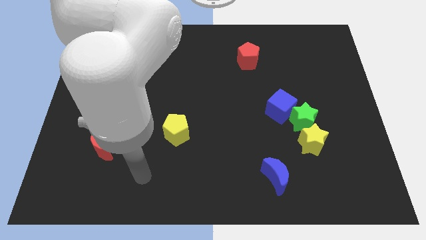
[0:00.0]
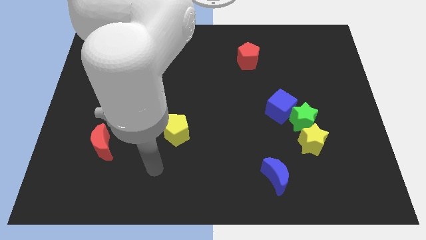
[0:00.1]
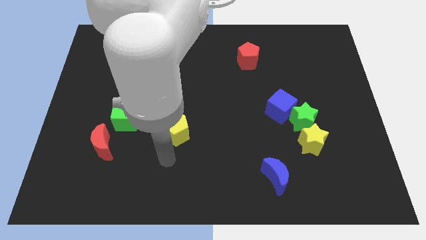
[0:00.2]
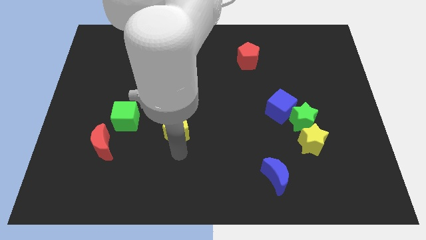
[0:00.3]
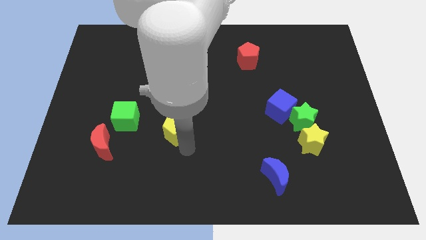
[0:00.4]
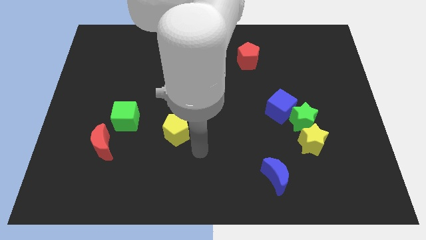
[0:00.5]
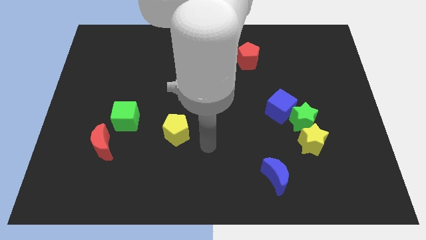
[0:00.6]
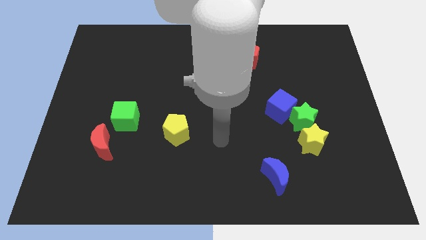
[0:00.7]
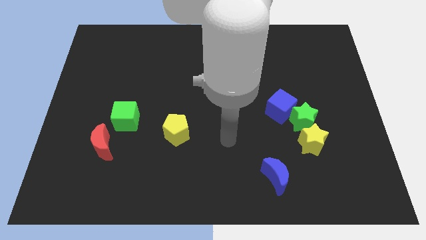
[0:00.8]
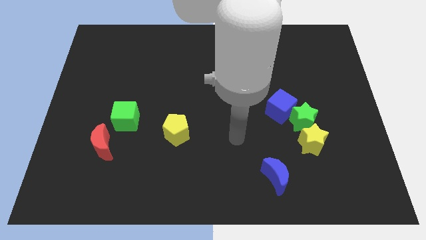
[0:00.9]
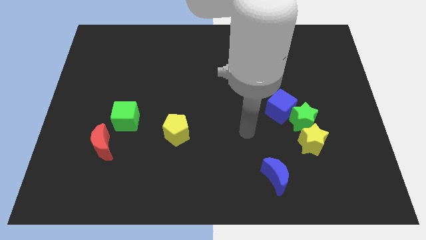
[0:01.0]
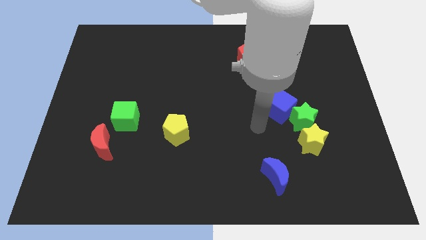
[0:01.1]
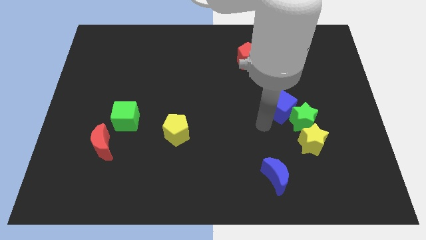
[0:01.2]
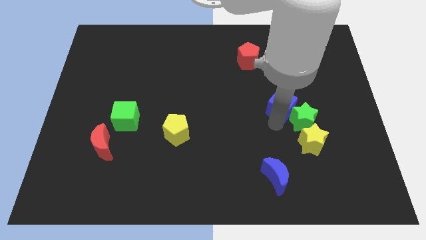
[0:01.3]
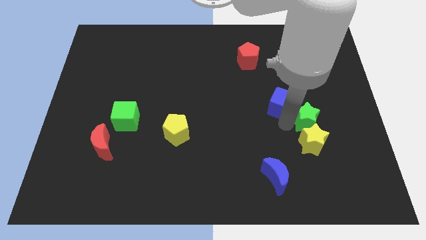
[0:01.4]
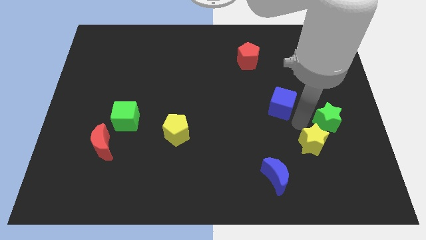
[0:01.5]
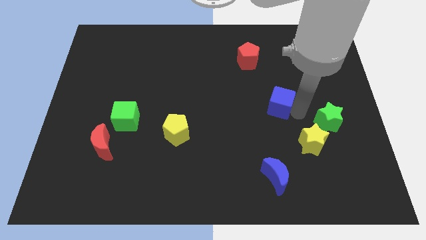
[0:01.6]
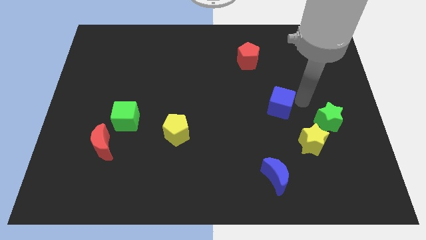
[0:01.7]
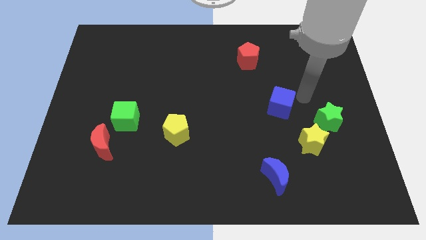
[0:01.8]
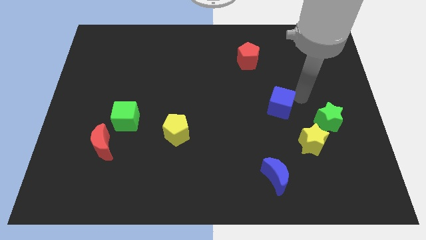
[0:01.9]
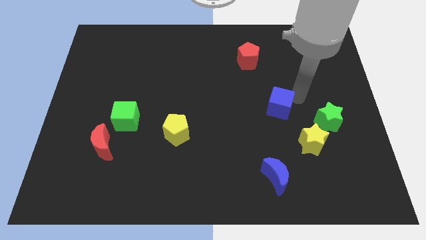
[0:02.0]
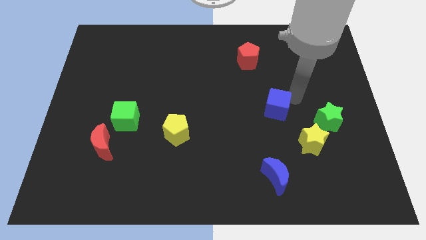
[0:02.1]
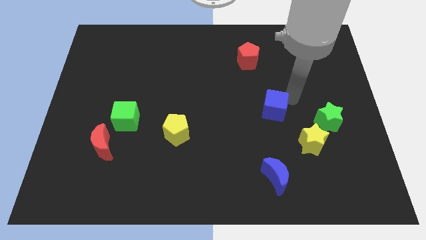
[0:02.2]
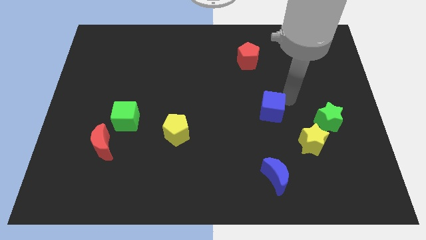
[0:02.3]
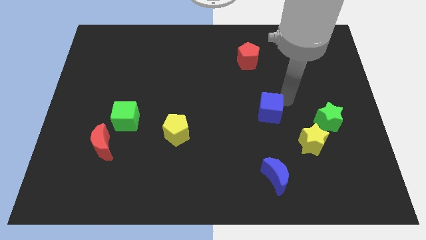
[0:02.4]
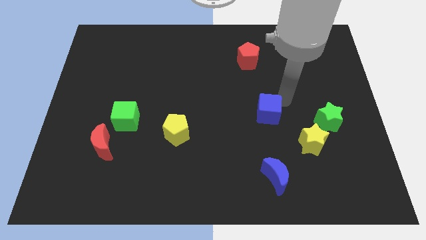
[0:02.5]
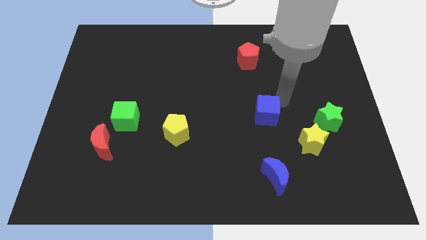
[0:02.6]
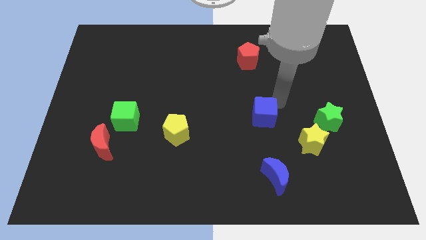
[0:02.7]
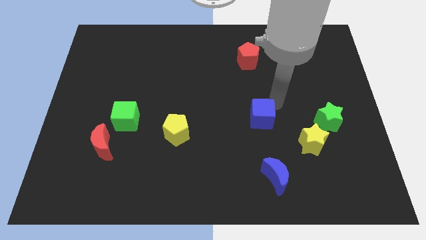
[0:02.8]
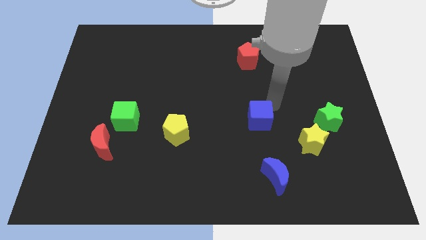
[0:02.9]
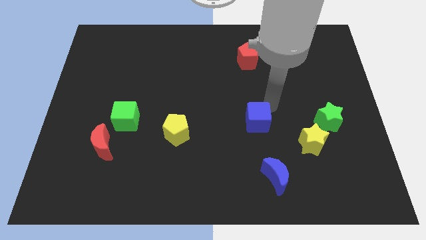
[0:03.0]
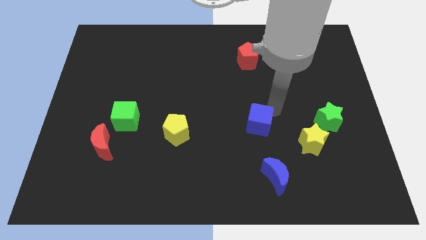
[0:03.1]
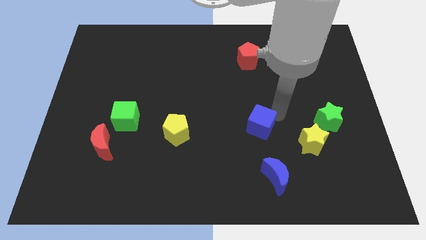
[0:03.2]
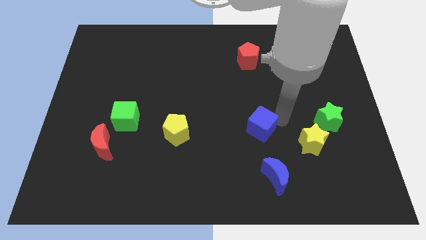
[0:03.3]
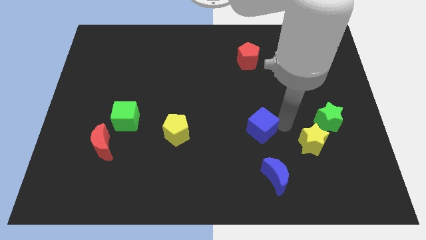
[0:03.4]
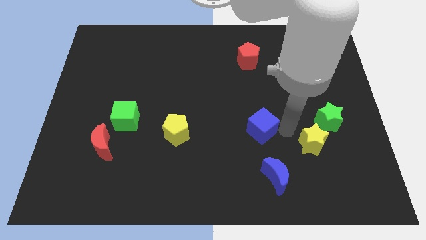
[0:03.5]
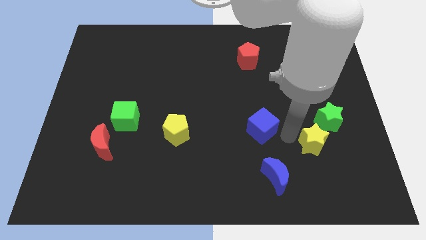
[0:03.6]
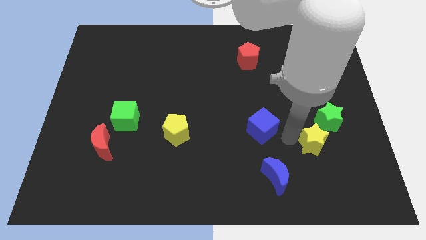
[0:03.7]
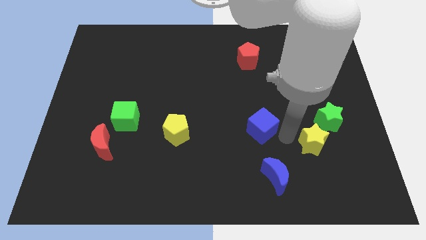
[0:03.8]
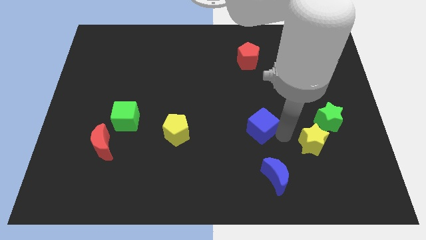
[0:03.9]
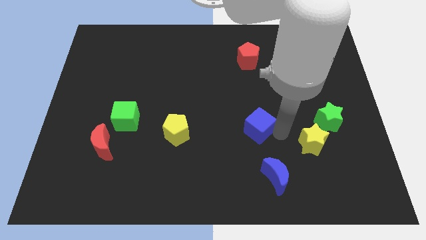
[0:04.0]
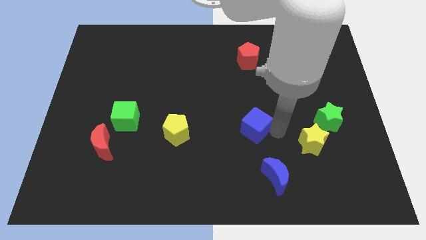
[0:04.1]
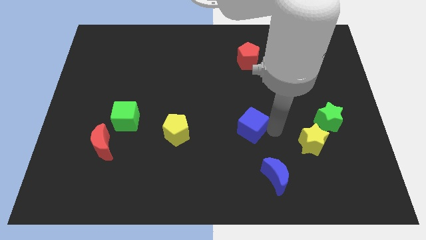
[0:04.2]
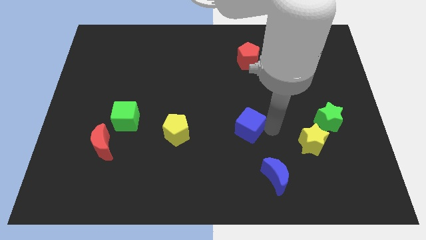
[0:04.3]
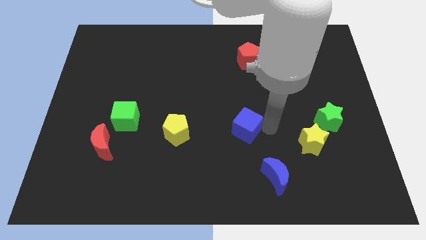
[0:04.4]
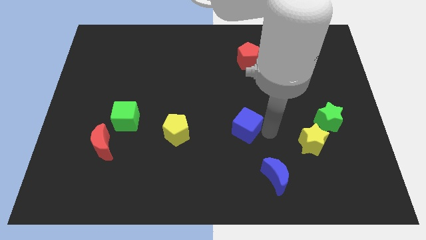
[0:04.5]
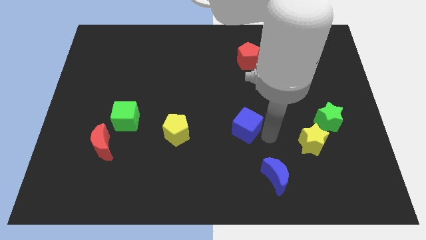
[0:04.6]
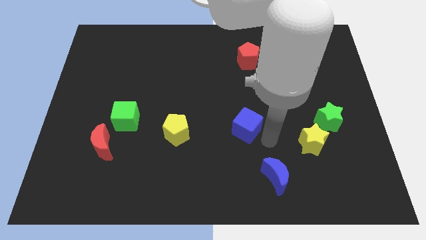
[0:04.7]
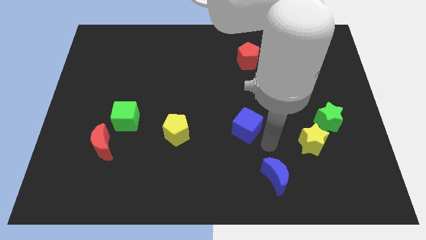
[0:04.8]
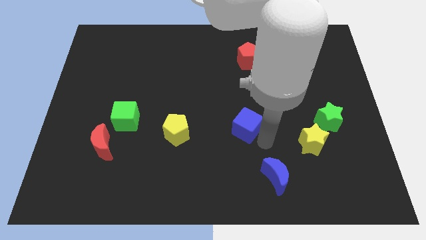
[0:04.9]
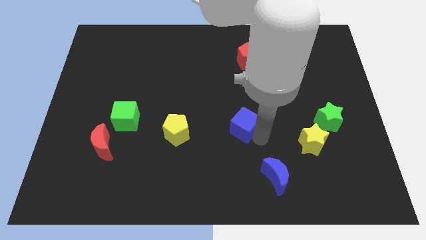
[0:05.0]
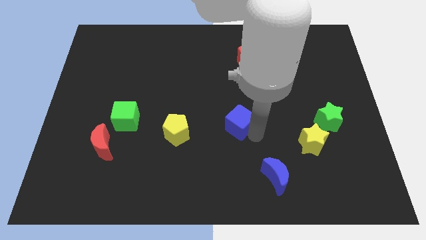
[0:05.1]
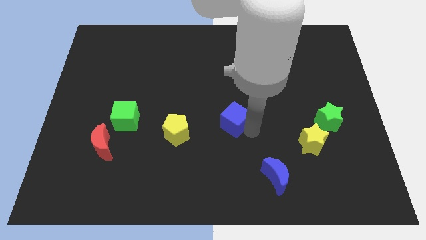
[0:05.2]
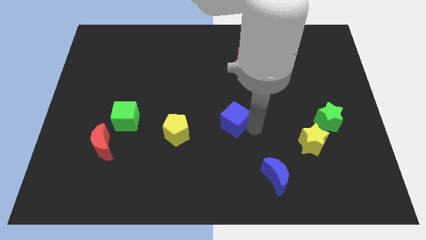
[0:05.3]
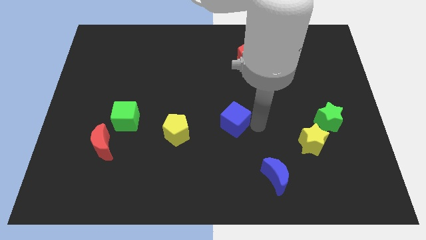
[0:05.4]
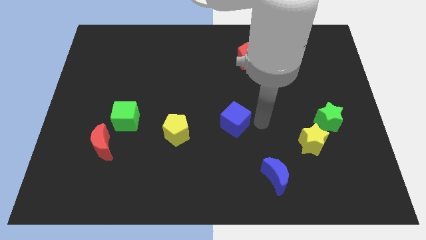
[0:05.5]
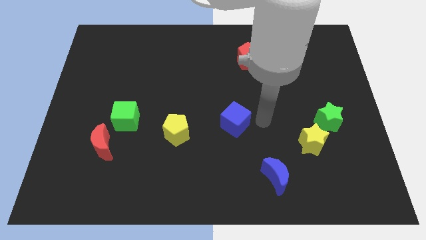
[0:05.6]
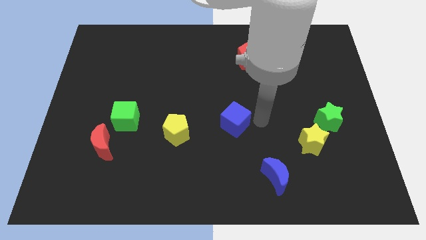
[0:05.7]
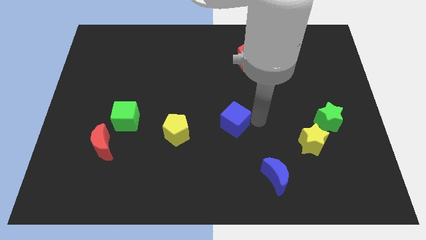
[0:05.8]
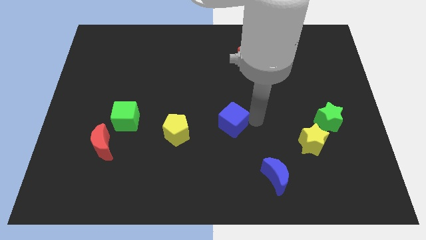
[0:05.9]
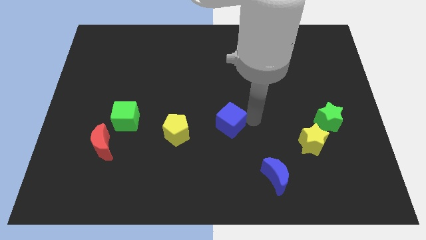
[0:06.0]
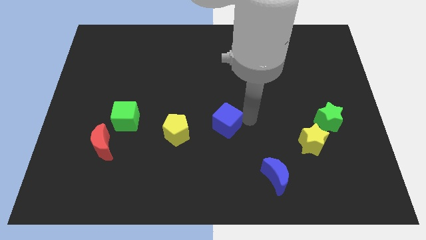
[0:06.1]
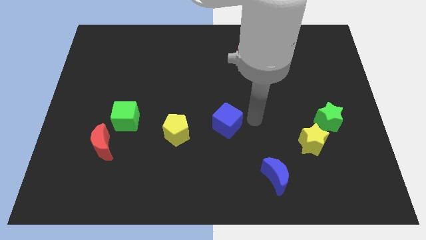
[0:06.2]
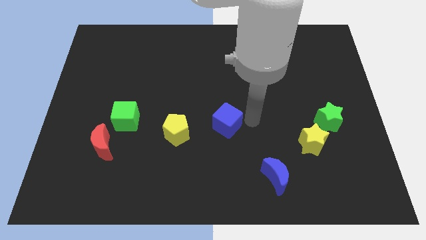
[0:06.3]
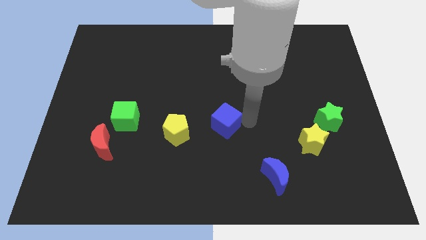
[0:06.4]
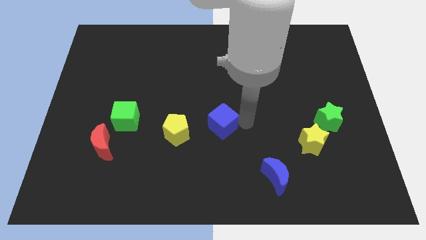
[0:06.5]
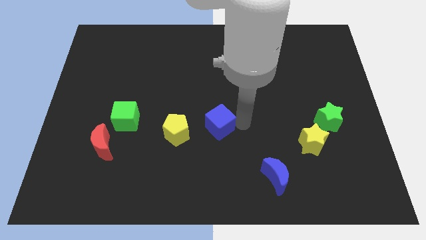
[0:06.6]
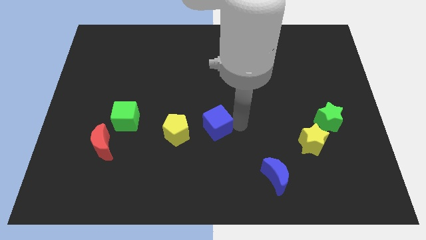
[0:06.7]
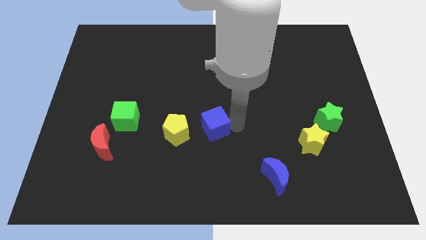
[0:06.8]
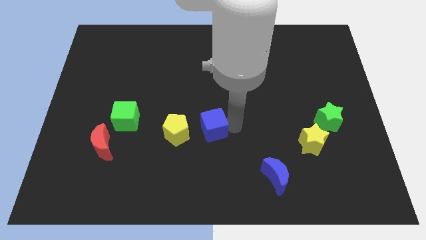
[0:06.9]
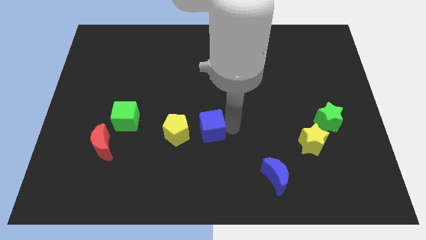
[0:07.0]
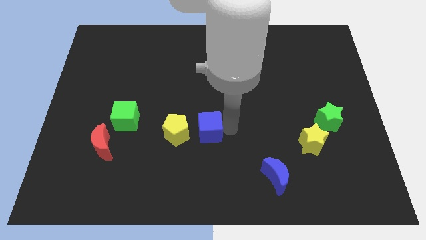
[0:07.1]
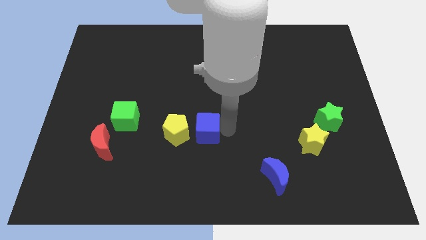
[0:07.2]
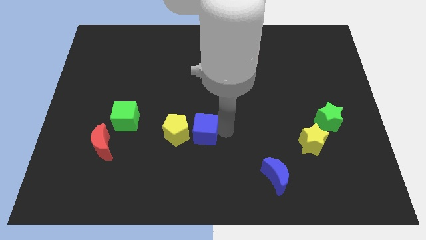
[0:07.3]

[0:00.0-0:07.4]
slide the blue cube towards the yellow pentagon
